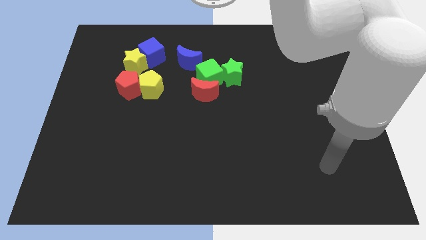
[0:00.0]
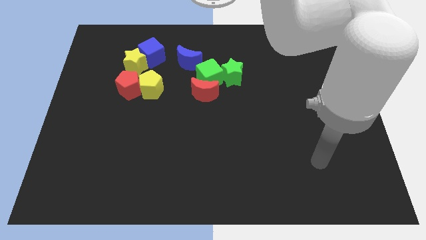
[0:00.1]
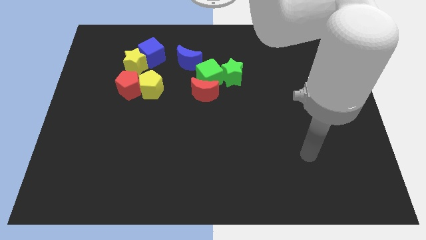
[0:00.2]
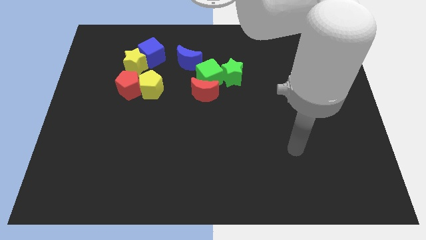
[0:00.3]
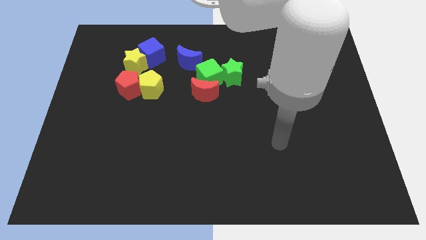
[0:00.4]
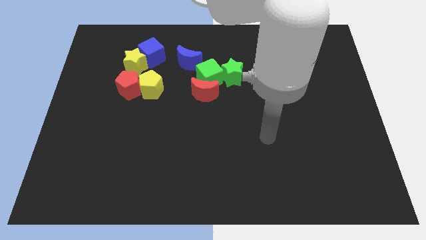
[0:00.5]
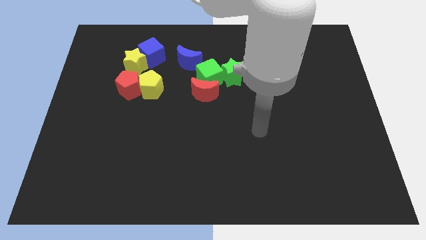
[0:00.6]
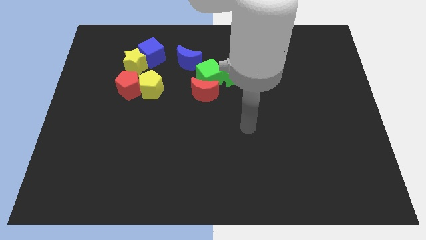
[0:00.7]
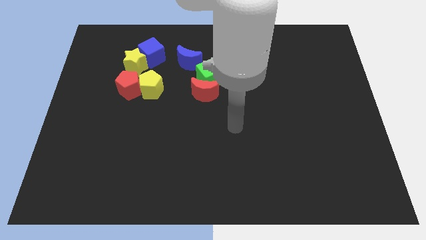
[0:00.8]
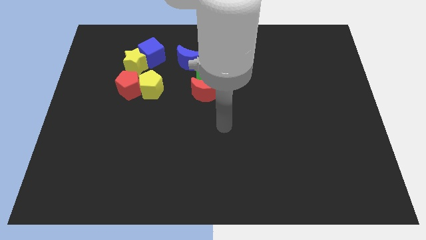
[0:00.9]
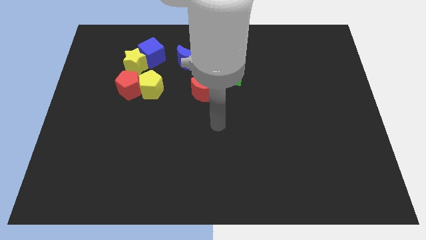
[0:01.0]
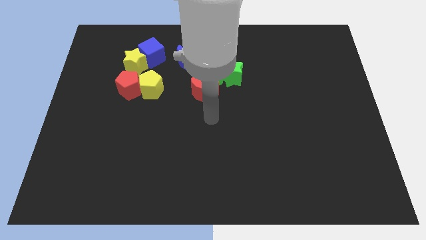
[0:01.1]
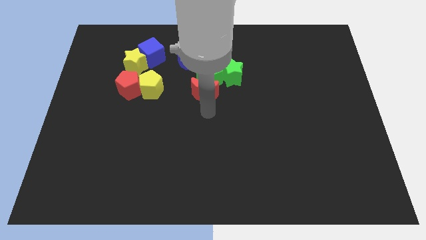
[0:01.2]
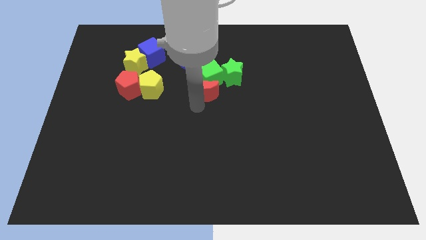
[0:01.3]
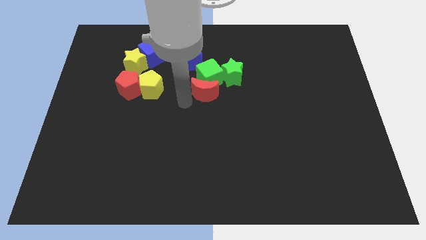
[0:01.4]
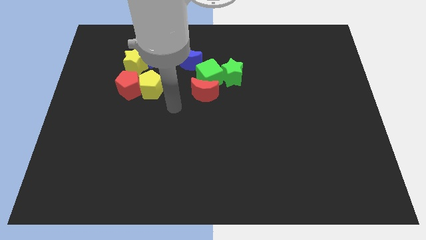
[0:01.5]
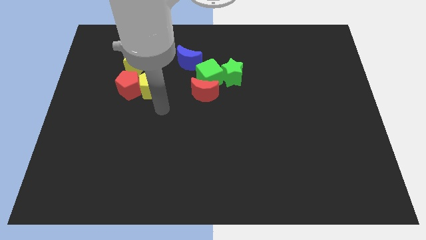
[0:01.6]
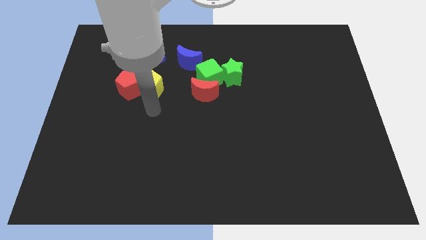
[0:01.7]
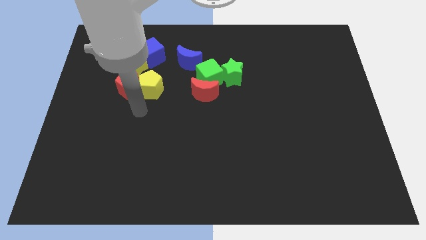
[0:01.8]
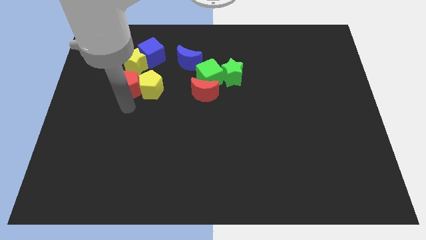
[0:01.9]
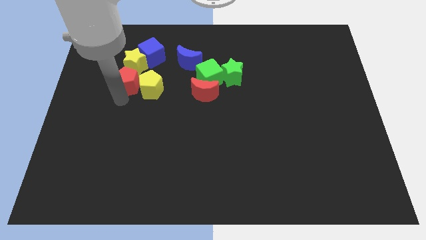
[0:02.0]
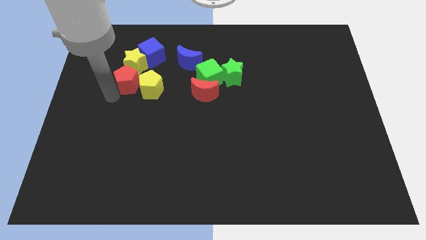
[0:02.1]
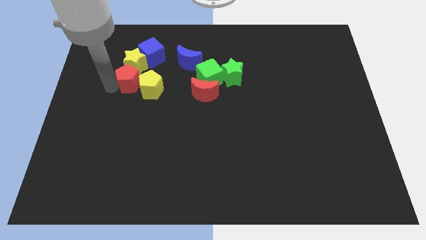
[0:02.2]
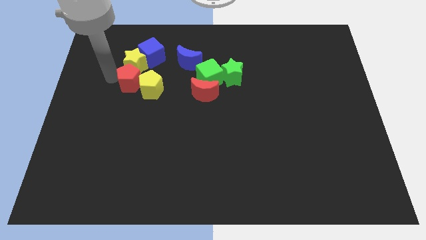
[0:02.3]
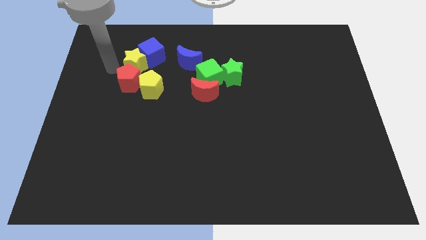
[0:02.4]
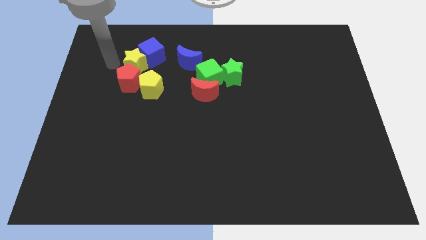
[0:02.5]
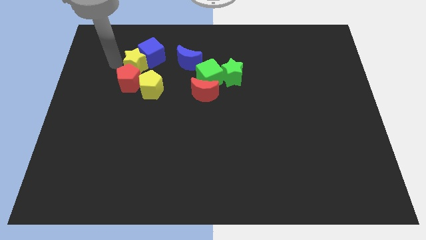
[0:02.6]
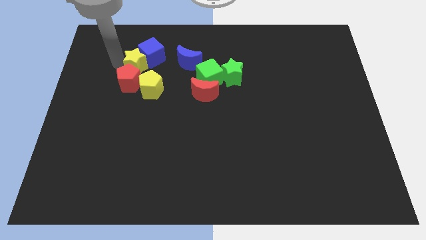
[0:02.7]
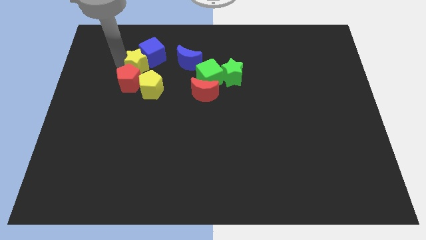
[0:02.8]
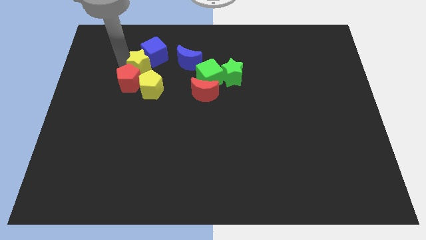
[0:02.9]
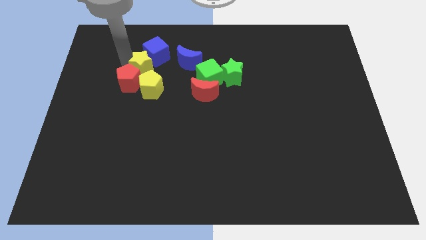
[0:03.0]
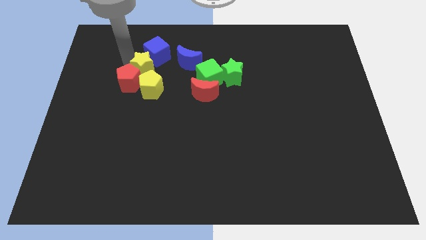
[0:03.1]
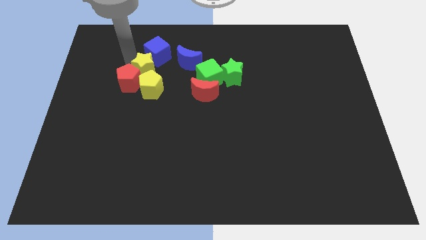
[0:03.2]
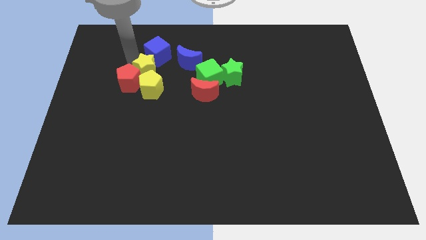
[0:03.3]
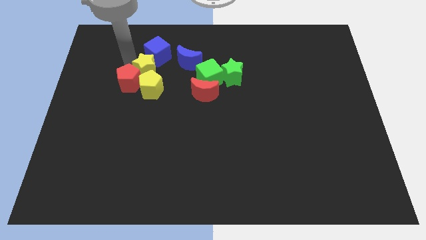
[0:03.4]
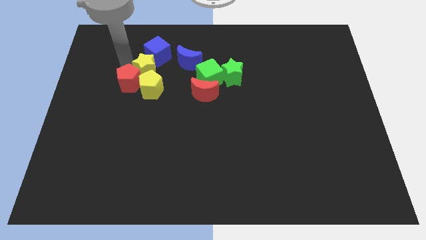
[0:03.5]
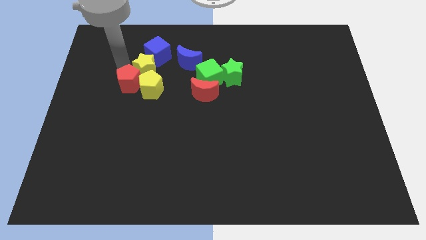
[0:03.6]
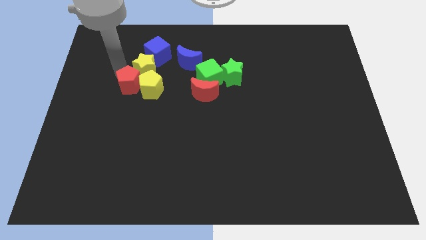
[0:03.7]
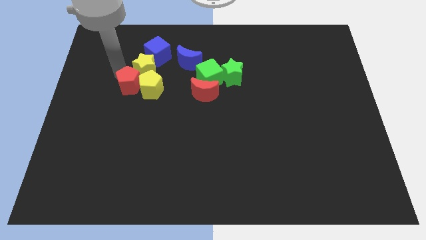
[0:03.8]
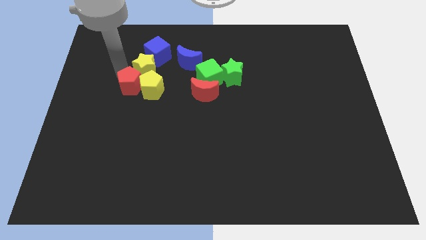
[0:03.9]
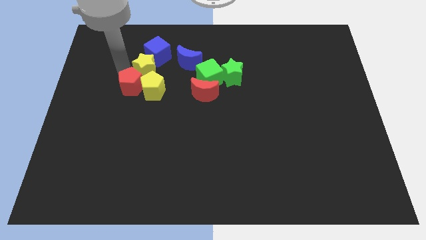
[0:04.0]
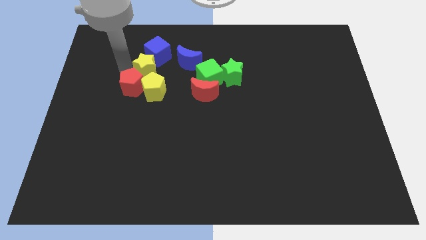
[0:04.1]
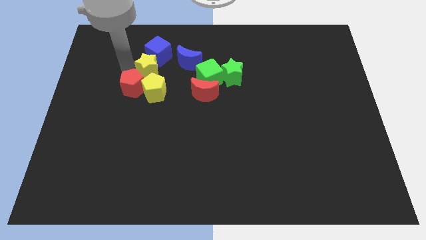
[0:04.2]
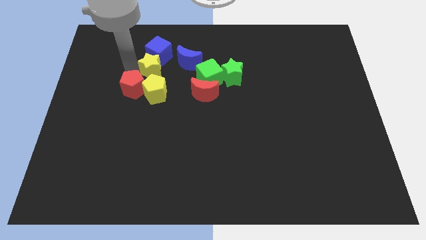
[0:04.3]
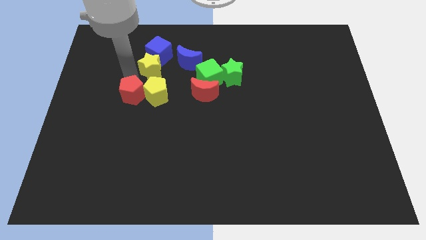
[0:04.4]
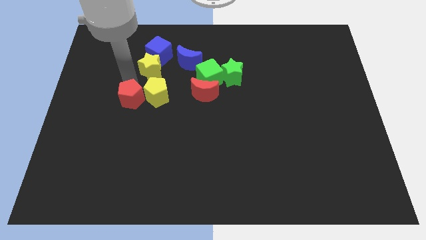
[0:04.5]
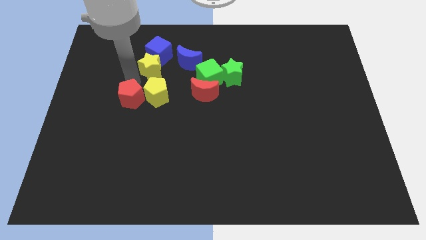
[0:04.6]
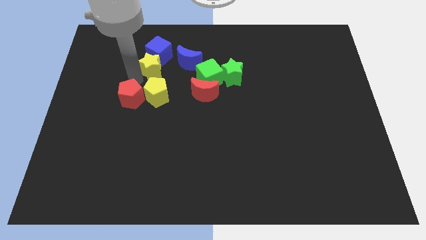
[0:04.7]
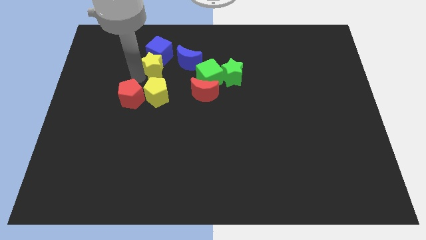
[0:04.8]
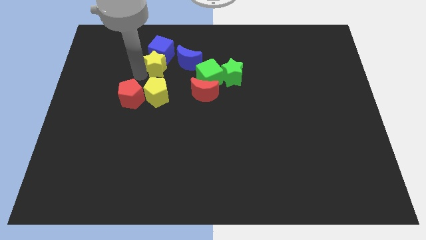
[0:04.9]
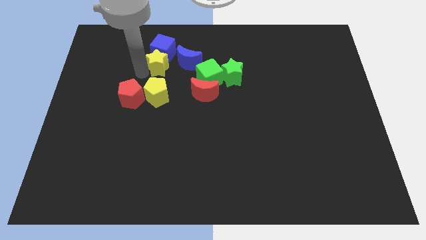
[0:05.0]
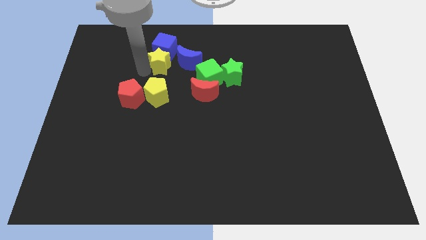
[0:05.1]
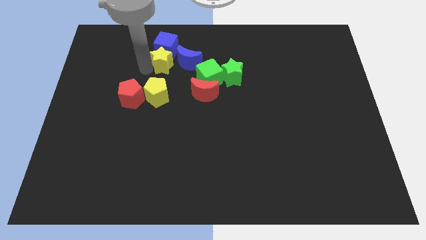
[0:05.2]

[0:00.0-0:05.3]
move the yellow star somewhat to the right

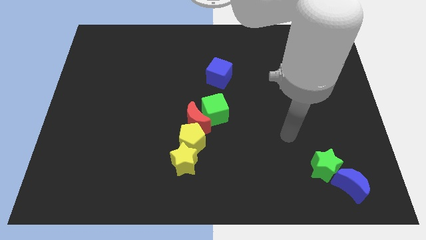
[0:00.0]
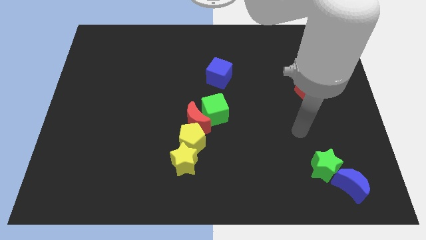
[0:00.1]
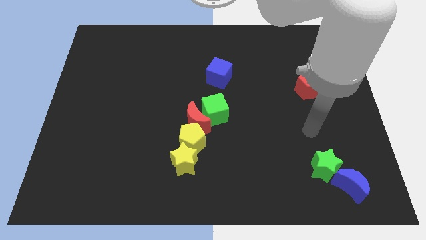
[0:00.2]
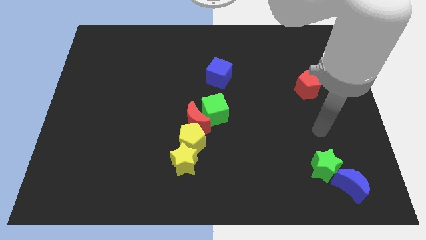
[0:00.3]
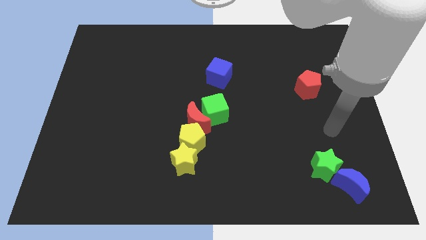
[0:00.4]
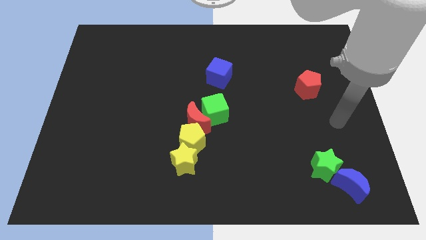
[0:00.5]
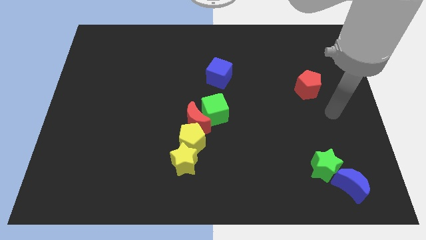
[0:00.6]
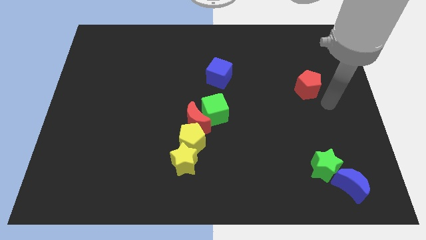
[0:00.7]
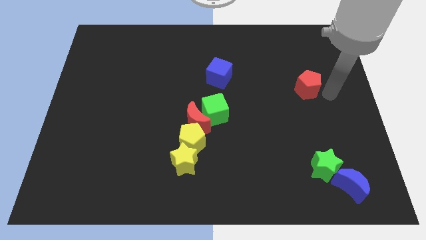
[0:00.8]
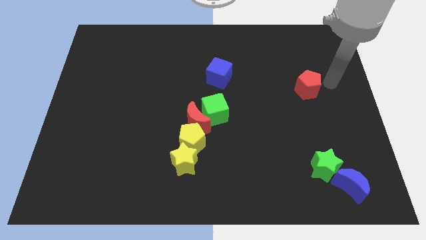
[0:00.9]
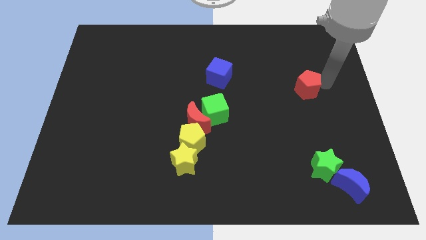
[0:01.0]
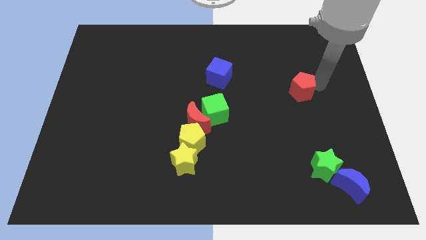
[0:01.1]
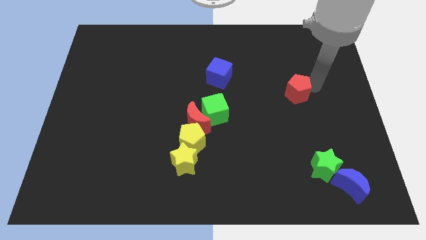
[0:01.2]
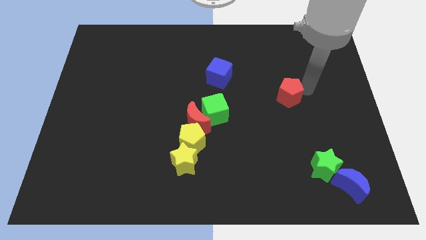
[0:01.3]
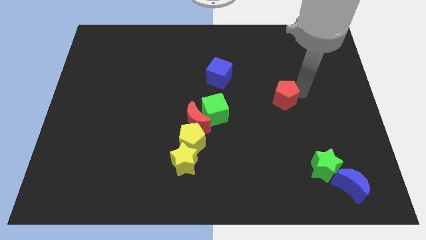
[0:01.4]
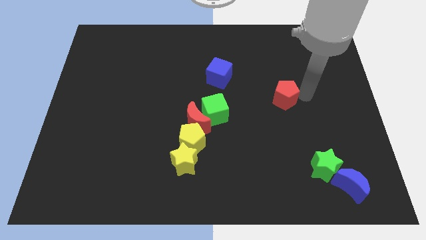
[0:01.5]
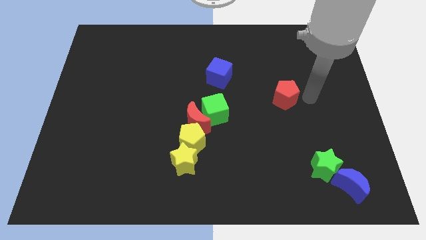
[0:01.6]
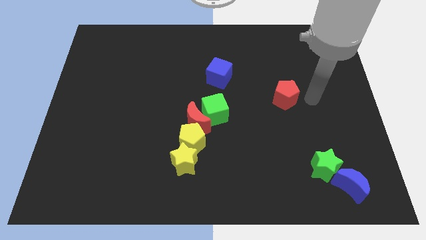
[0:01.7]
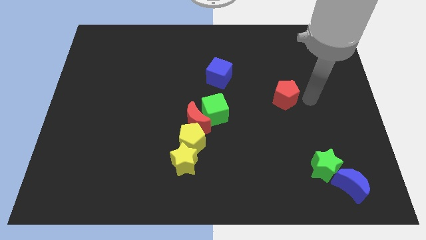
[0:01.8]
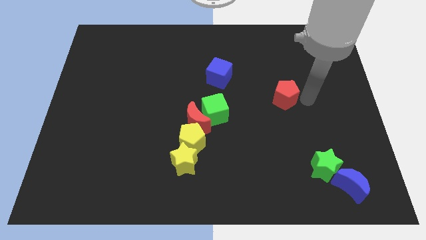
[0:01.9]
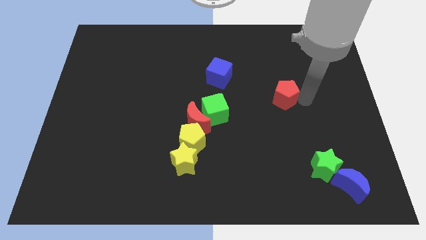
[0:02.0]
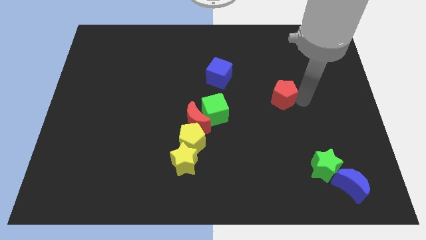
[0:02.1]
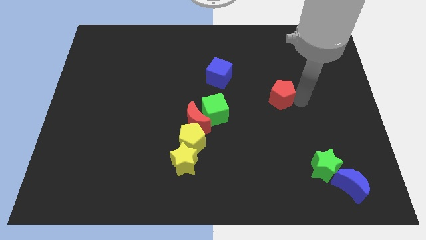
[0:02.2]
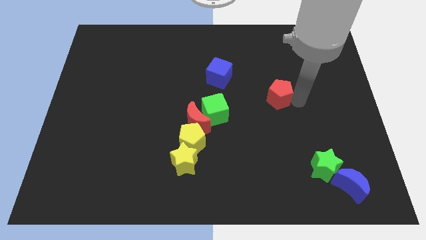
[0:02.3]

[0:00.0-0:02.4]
slightly move the red pentagon to the left

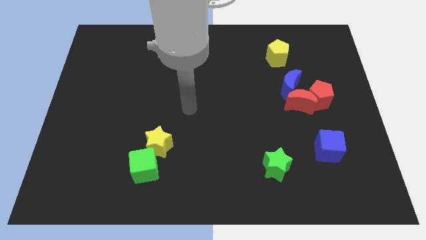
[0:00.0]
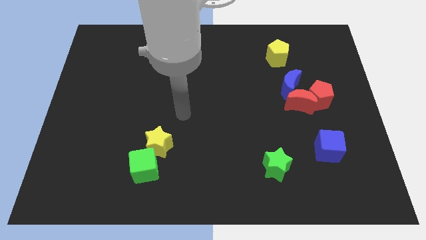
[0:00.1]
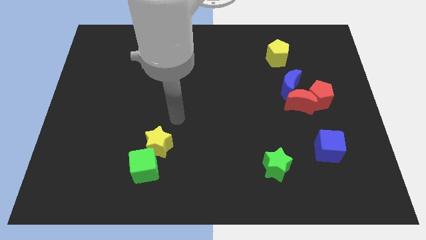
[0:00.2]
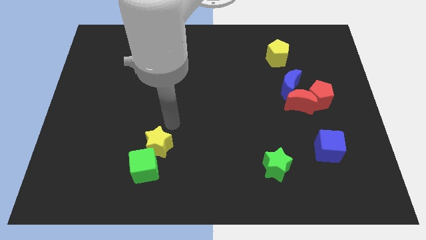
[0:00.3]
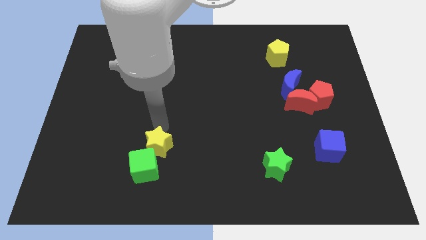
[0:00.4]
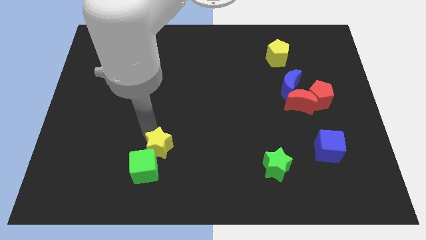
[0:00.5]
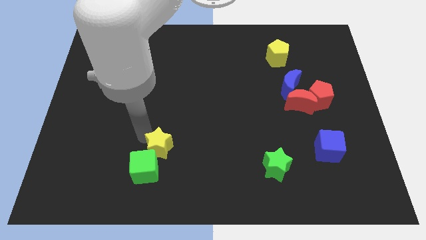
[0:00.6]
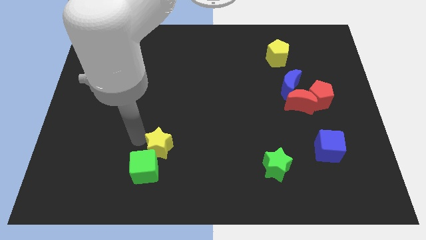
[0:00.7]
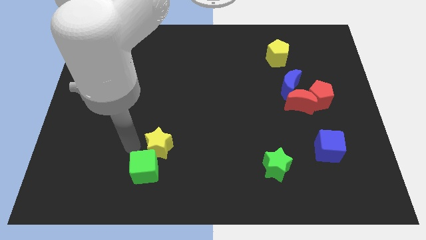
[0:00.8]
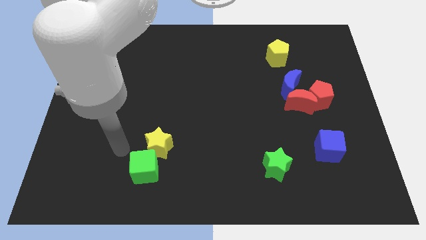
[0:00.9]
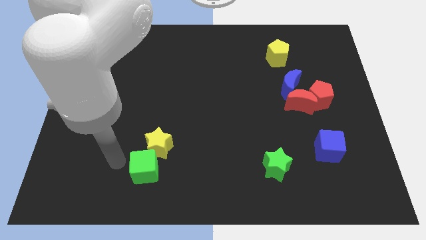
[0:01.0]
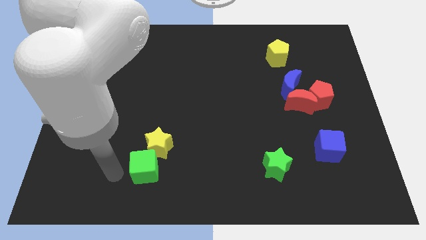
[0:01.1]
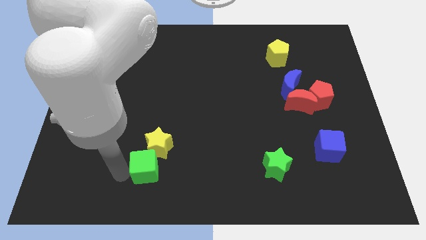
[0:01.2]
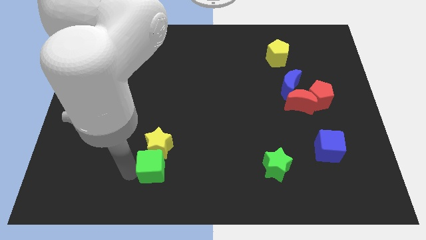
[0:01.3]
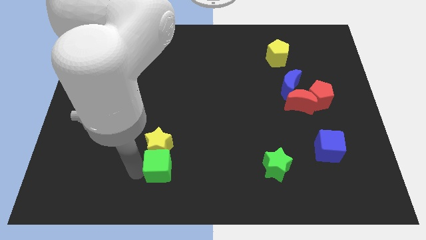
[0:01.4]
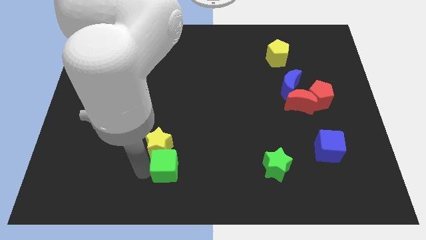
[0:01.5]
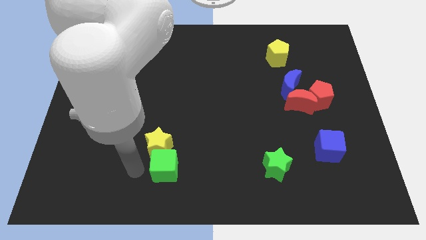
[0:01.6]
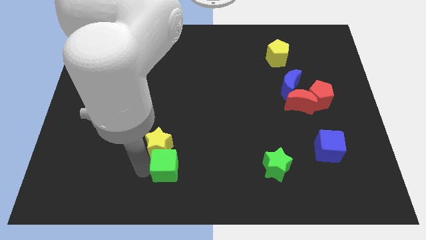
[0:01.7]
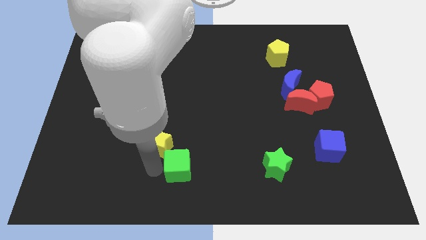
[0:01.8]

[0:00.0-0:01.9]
push the green cube to the right a little bit
